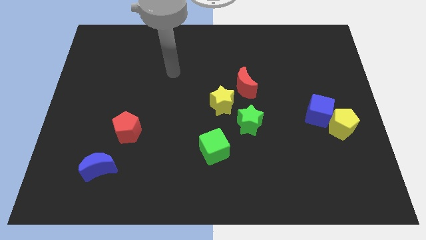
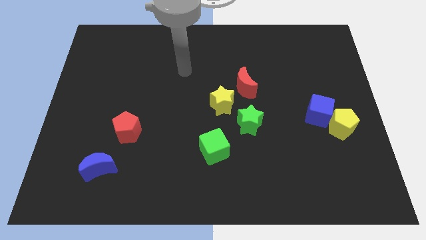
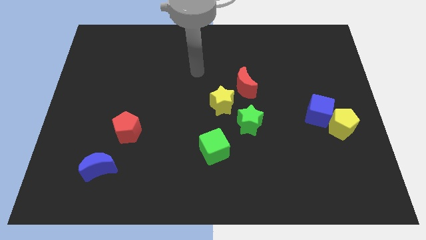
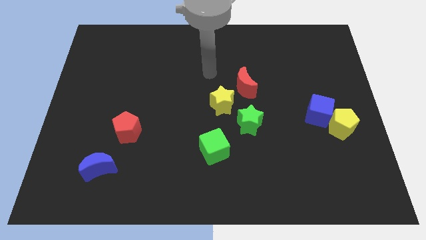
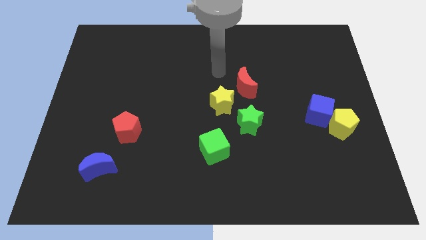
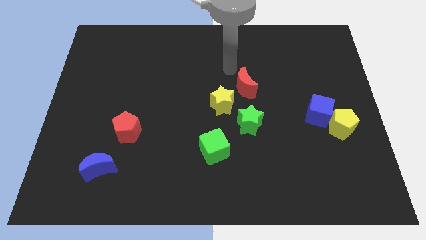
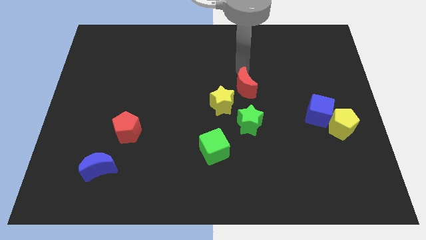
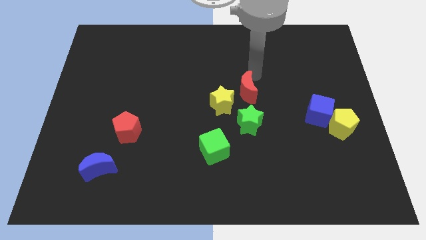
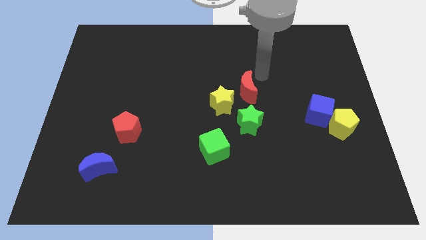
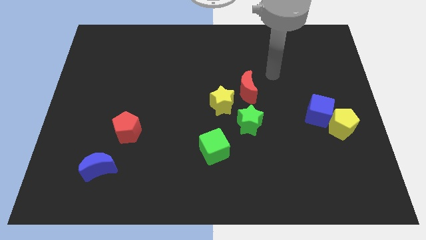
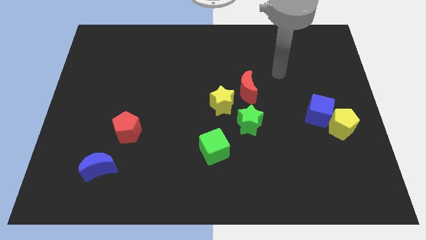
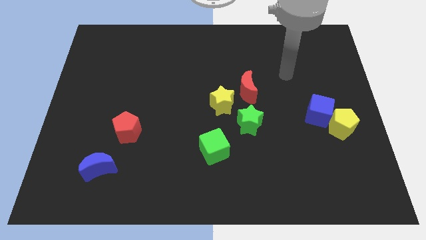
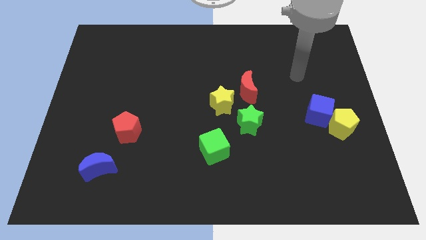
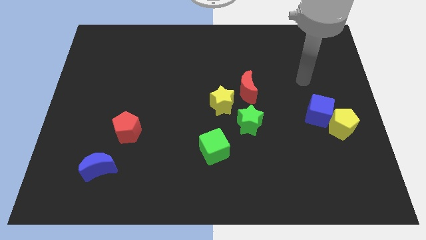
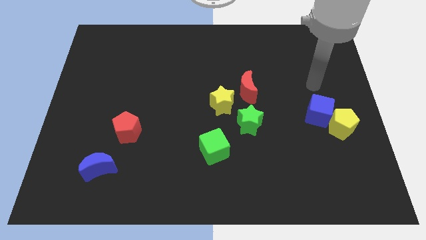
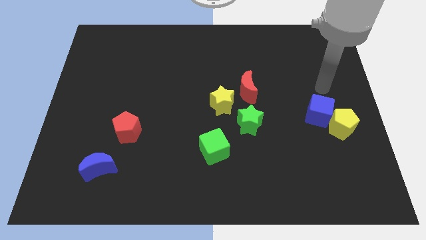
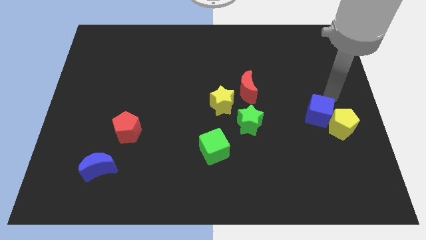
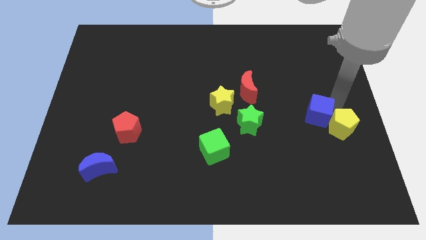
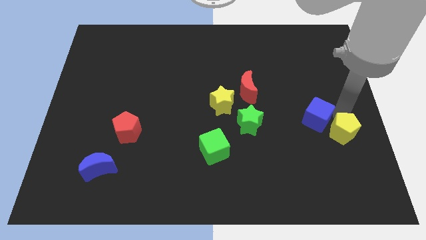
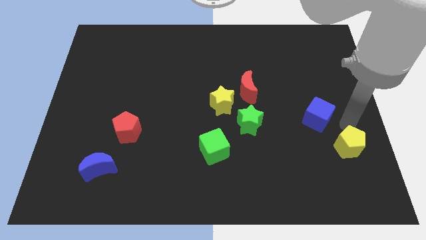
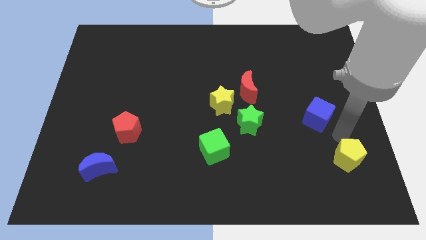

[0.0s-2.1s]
pull the blue cube apart from the yellow pentagon

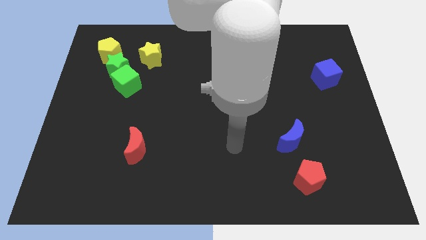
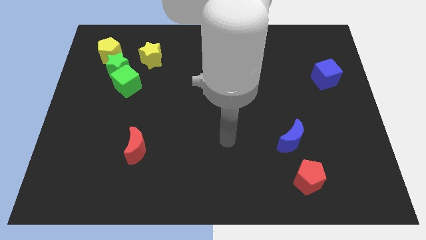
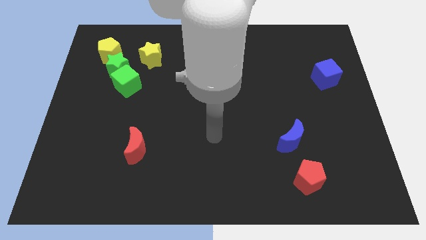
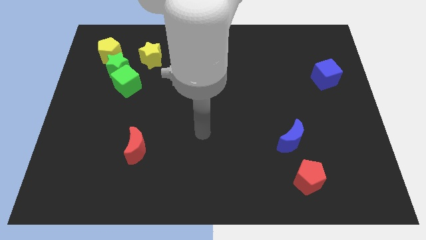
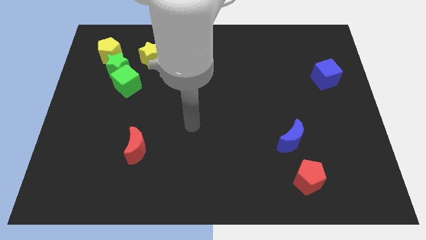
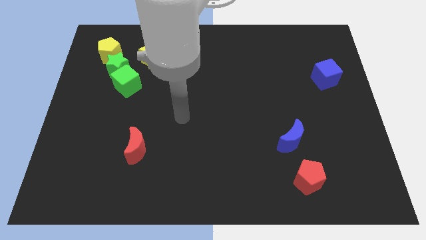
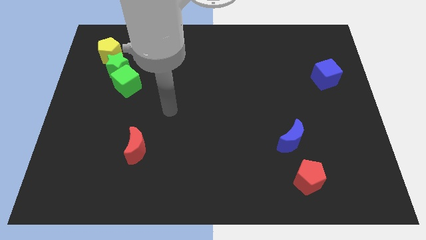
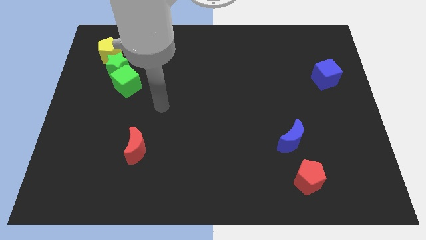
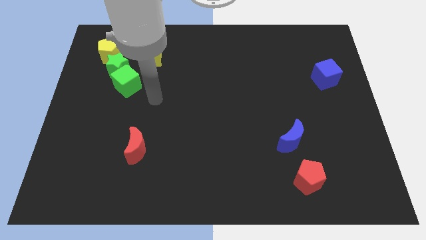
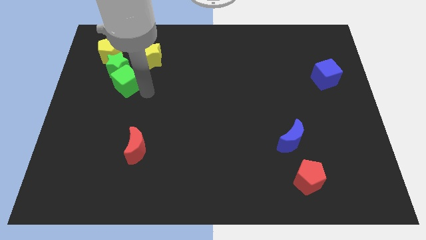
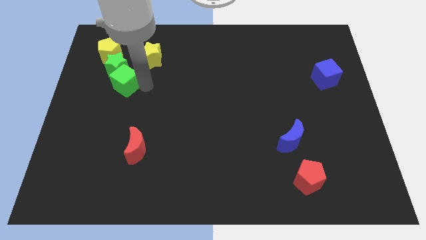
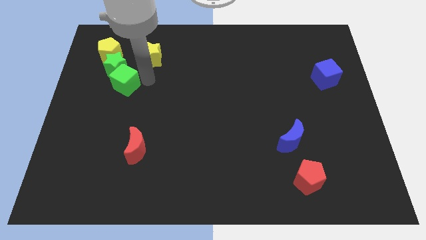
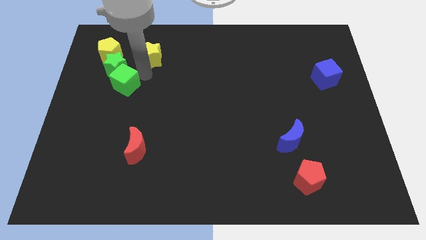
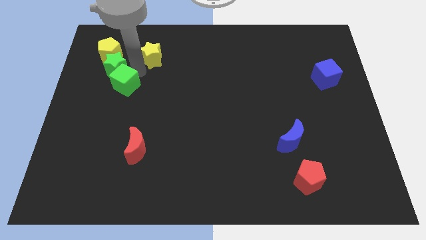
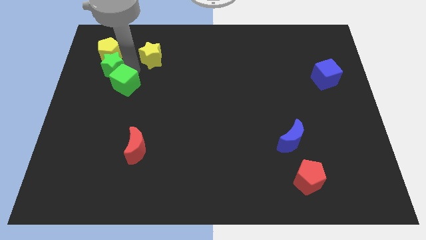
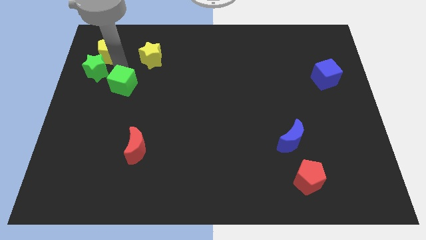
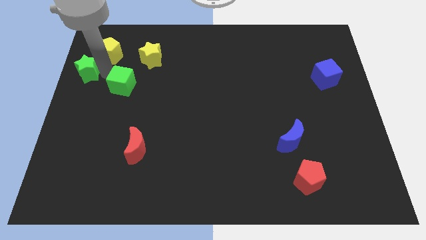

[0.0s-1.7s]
move the green cube away from the green star

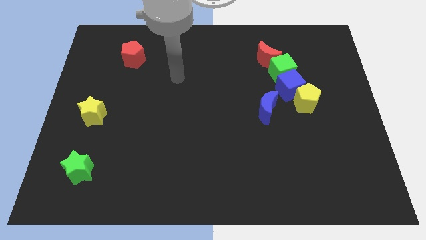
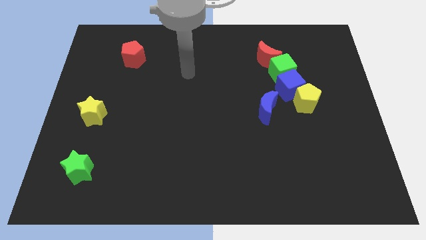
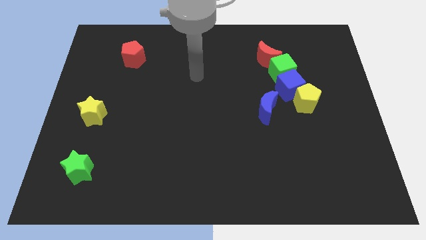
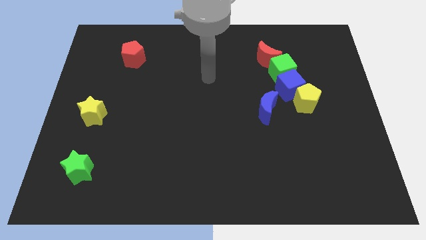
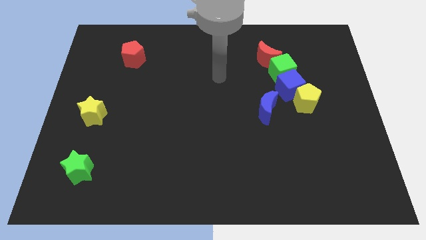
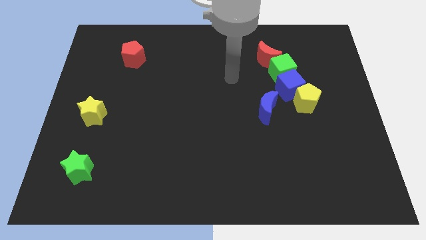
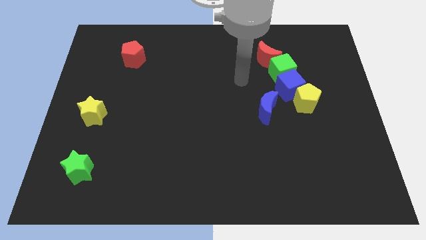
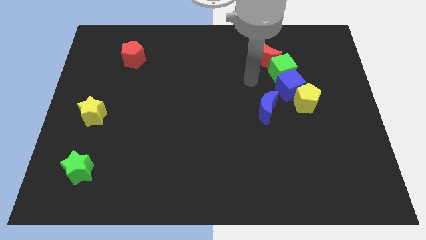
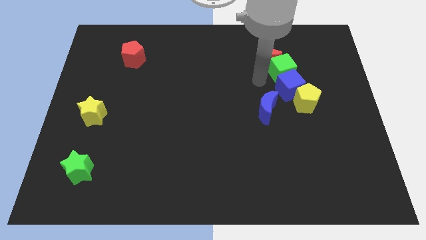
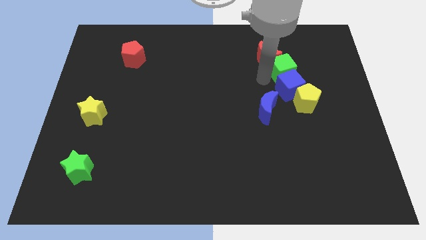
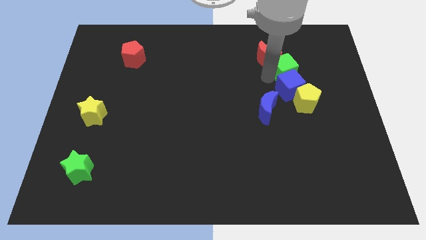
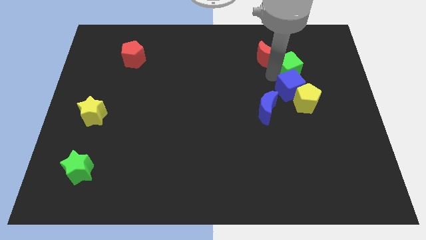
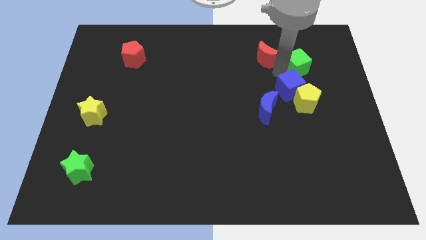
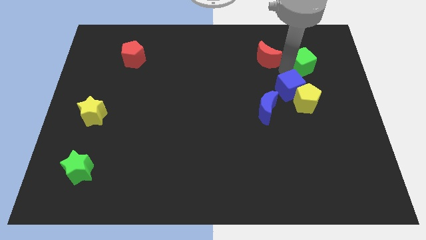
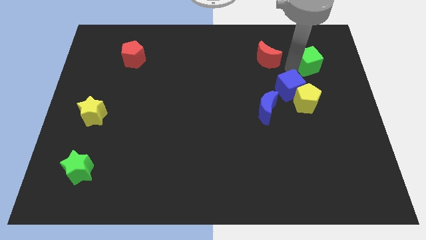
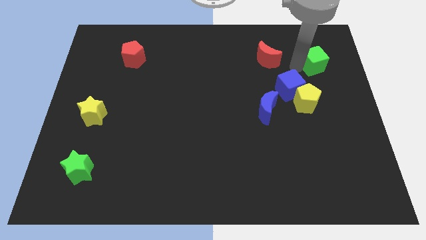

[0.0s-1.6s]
pull the green cube apart from the blue cube and red moon

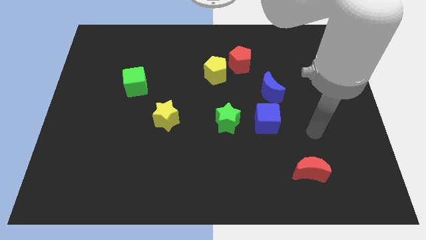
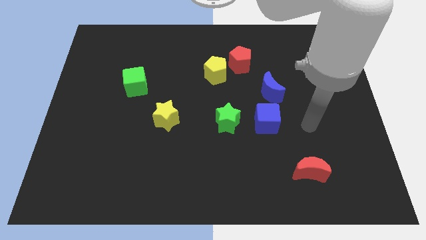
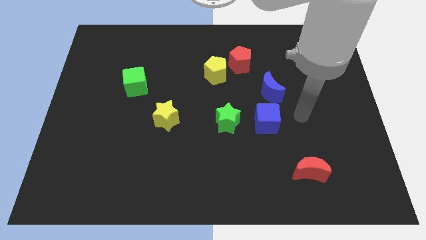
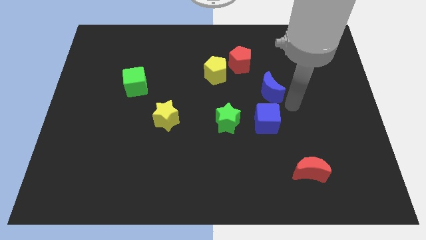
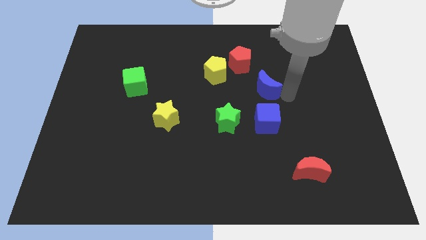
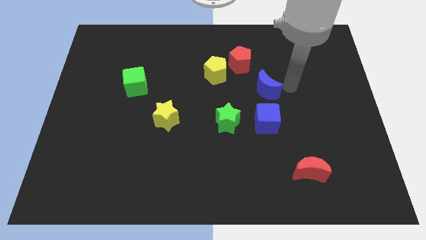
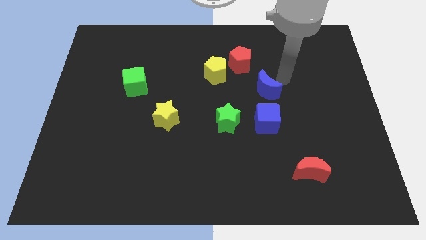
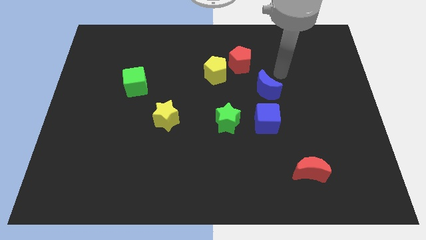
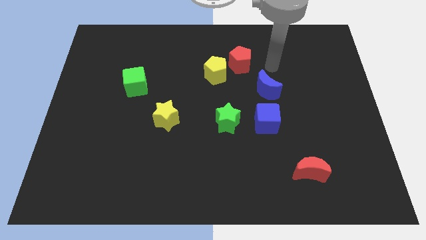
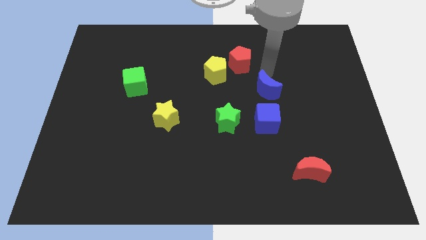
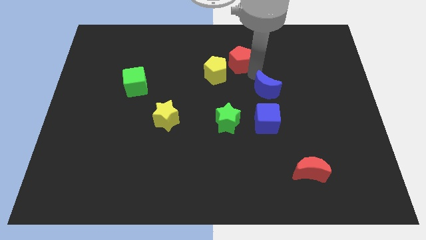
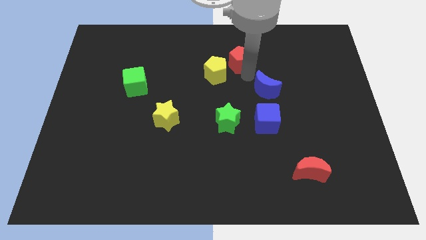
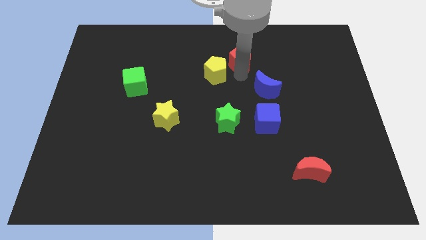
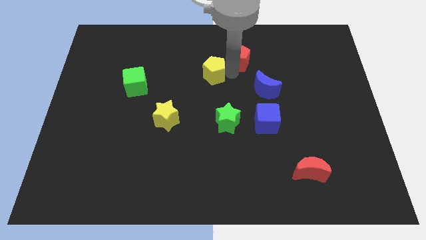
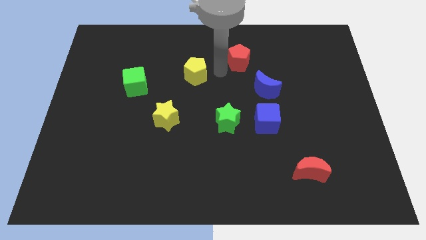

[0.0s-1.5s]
separate the red pentagon from the yellow pentagon

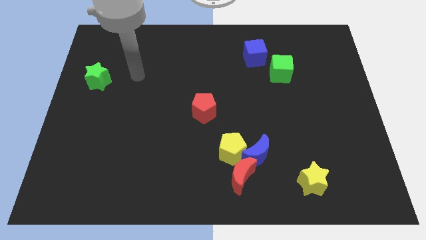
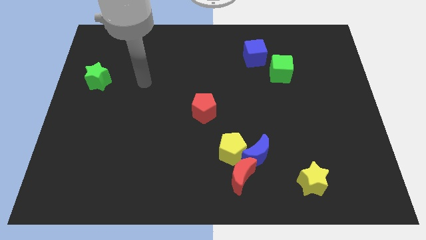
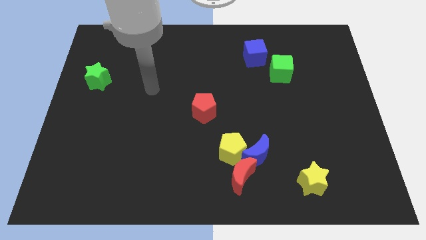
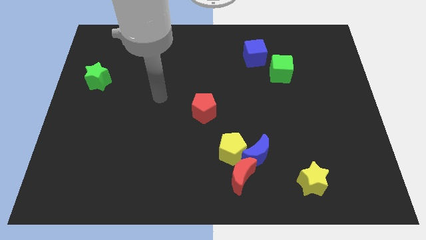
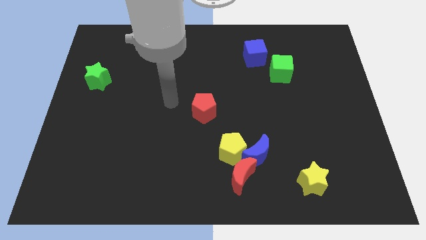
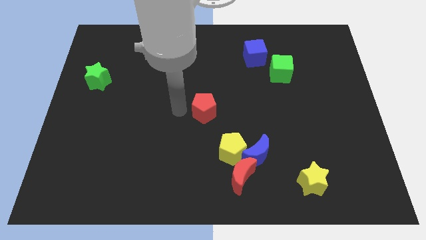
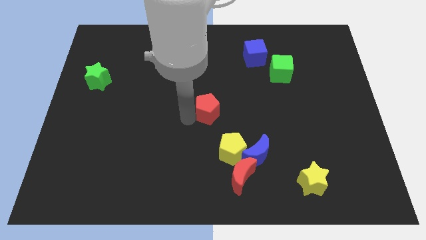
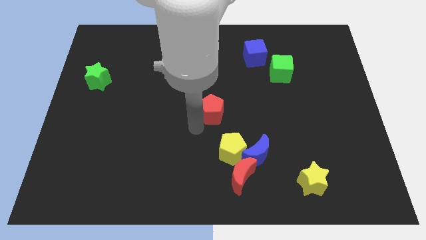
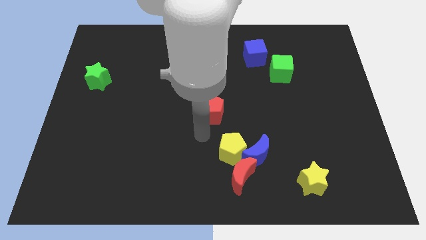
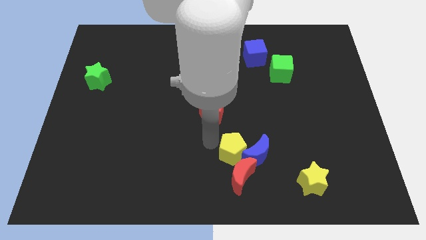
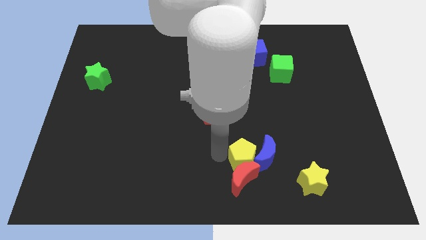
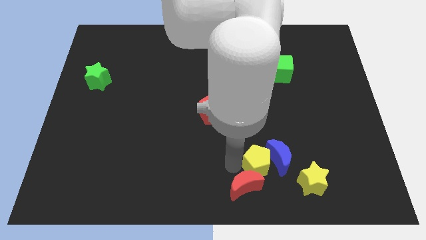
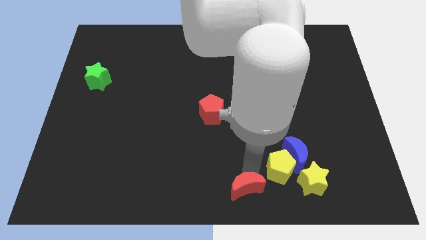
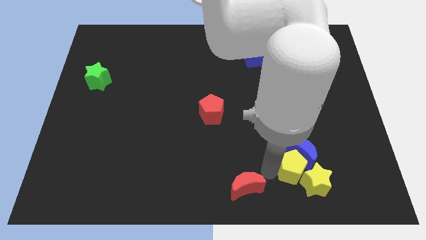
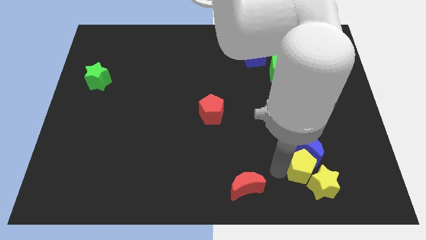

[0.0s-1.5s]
separate the blue moon from the yellow pentagon and red moon

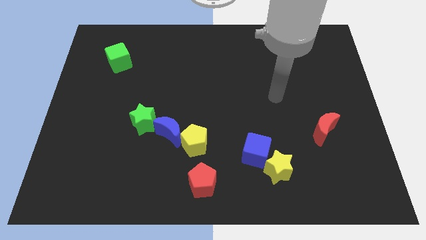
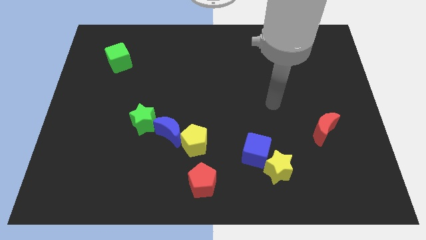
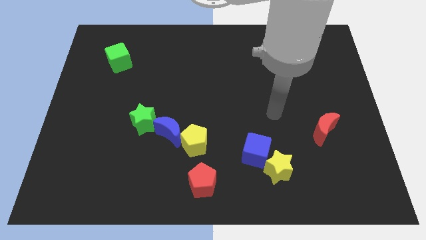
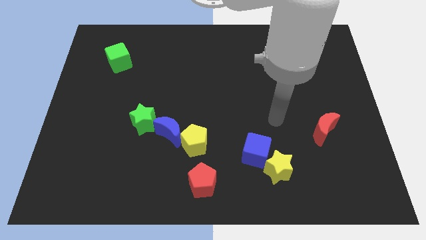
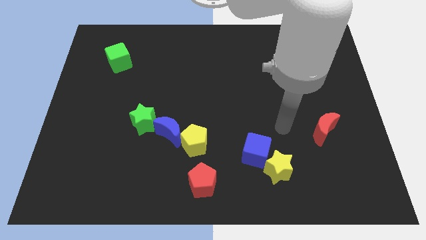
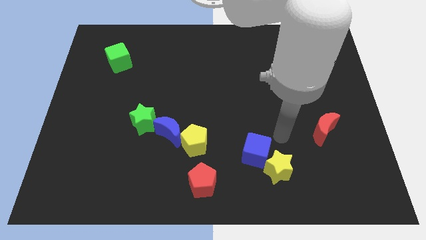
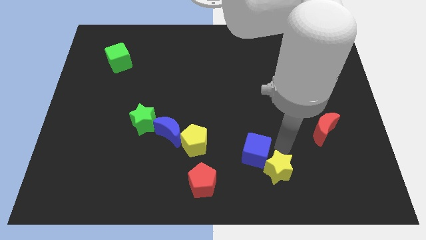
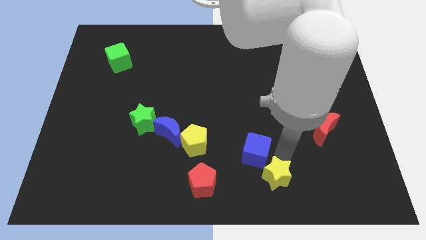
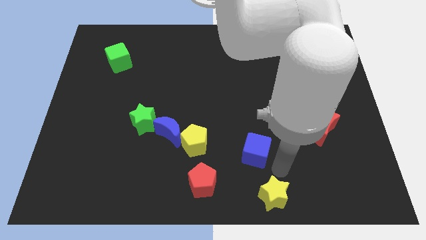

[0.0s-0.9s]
pull the blue cube apart from the yellow star
